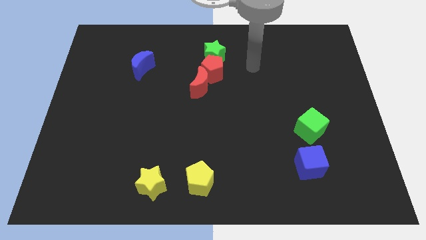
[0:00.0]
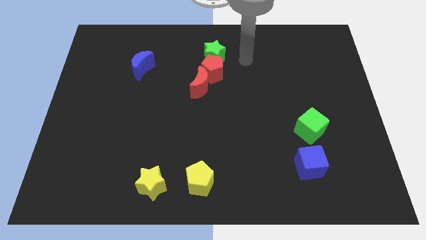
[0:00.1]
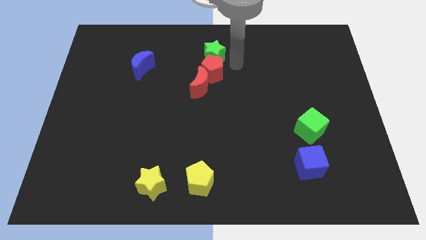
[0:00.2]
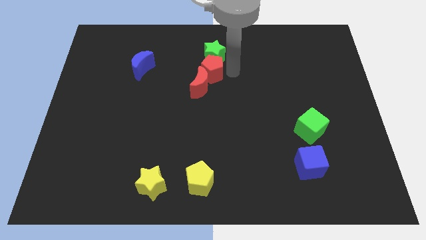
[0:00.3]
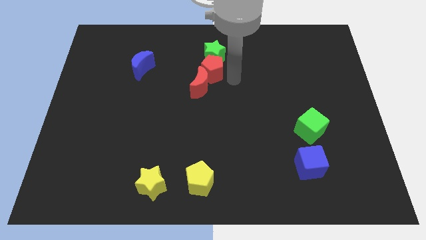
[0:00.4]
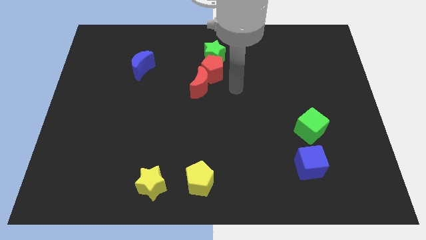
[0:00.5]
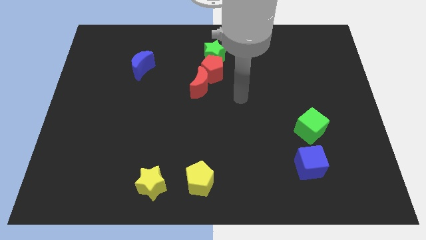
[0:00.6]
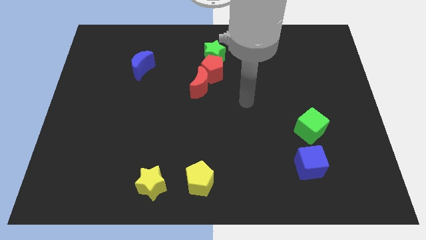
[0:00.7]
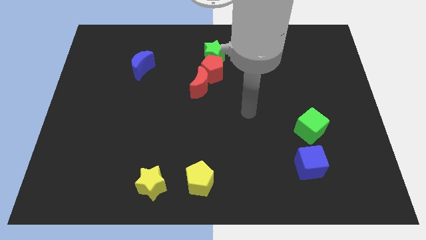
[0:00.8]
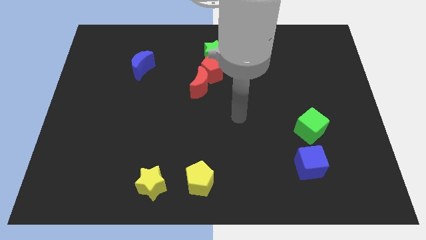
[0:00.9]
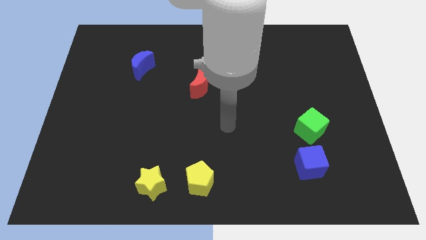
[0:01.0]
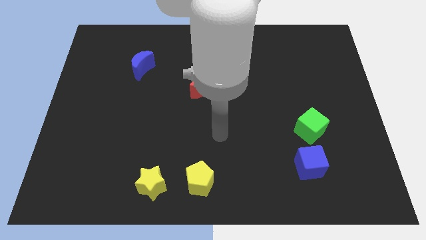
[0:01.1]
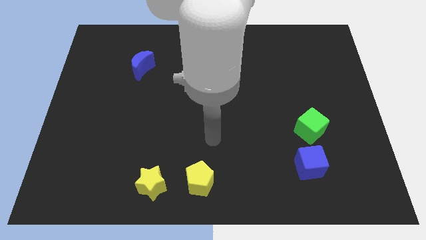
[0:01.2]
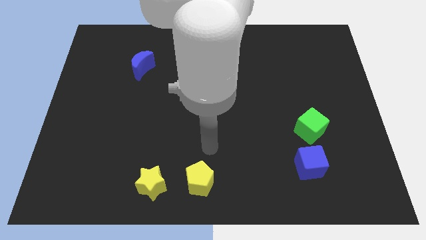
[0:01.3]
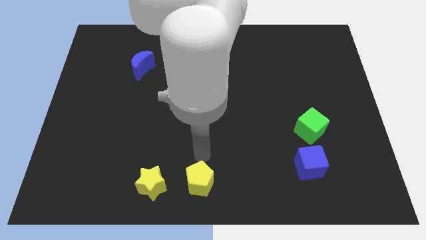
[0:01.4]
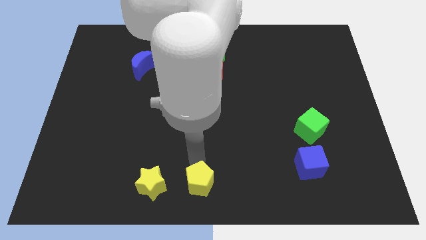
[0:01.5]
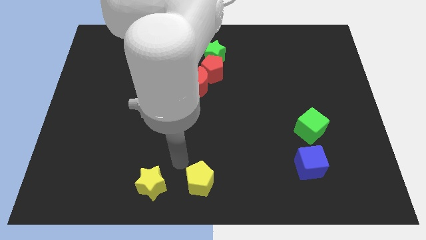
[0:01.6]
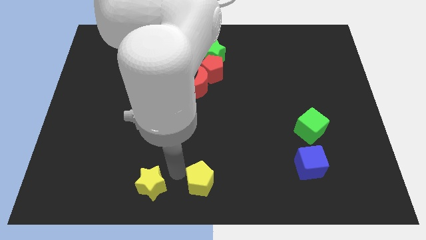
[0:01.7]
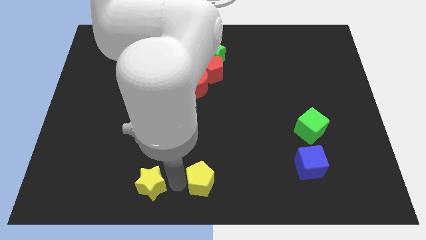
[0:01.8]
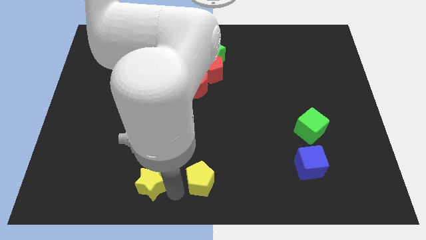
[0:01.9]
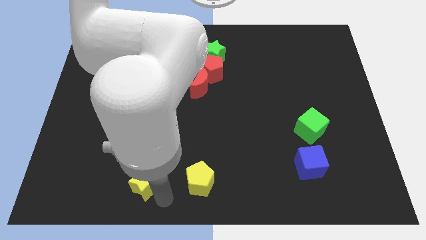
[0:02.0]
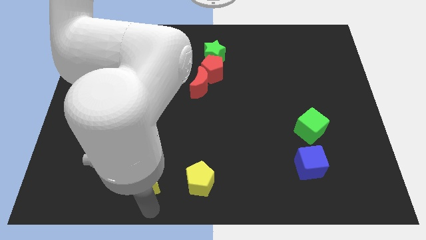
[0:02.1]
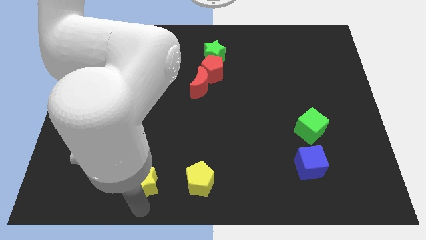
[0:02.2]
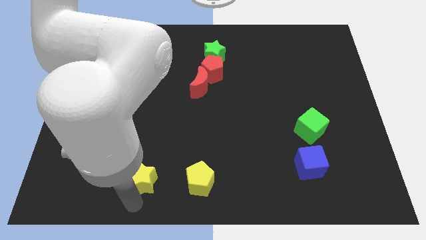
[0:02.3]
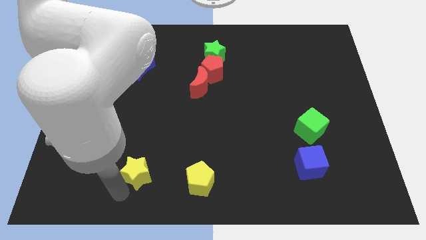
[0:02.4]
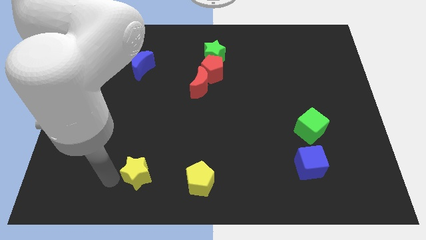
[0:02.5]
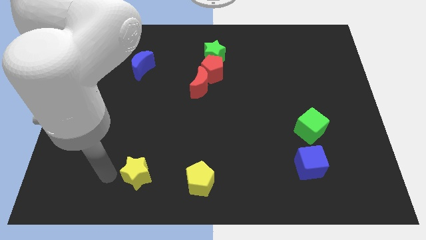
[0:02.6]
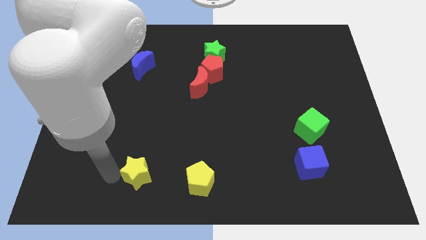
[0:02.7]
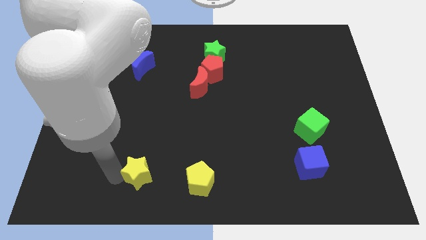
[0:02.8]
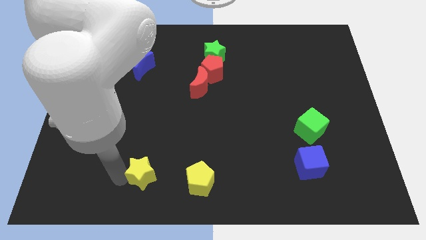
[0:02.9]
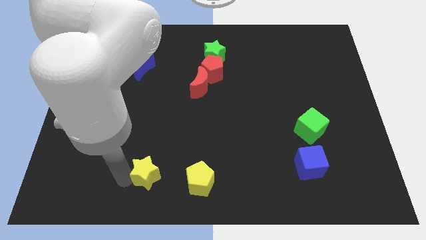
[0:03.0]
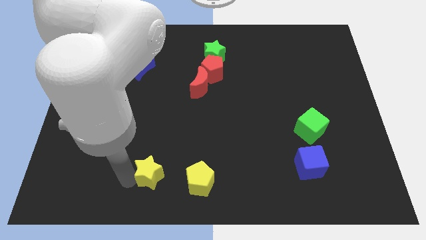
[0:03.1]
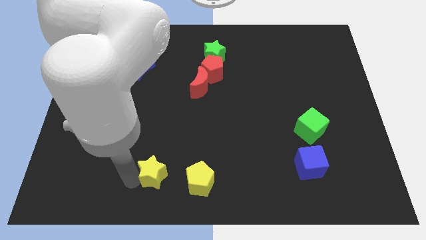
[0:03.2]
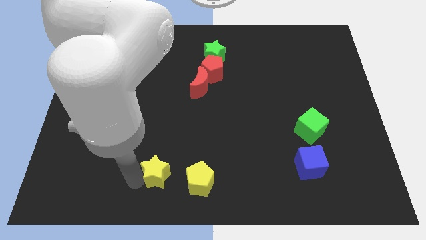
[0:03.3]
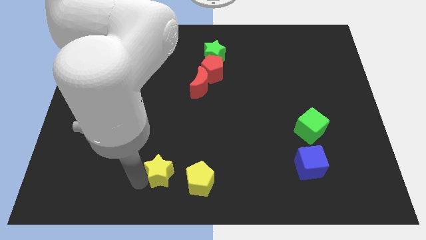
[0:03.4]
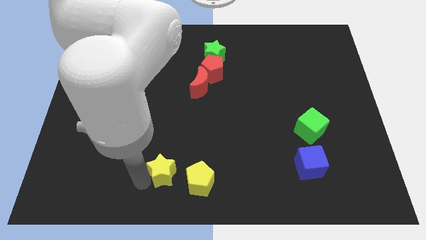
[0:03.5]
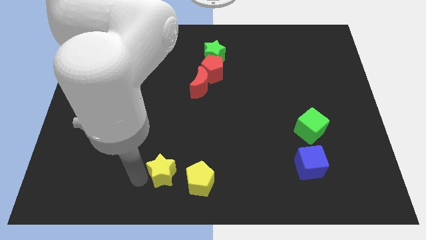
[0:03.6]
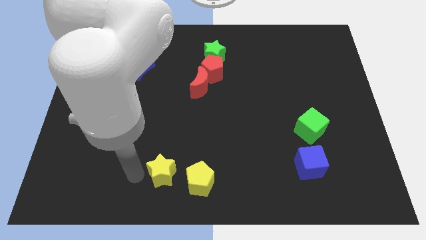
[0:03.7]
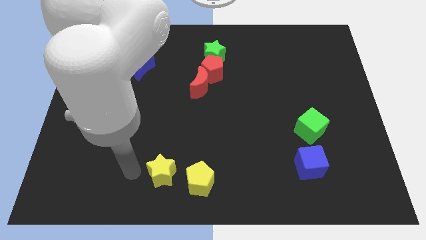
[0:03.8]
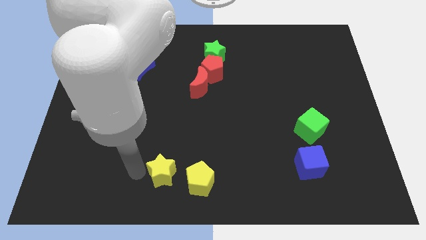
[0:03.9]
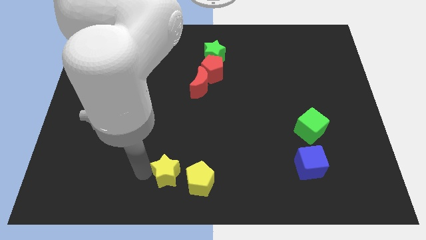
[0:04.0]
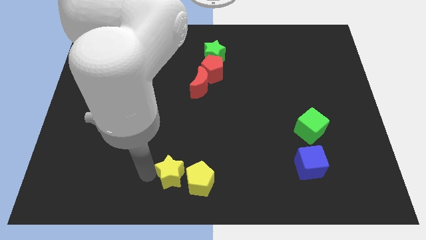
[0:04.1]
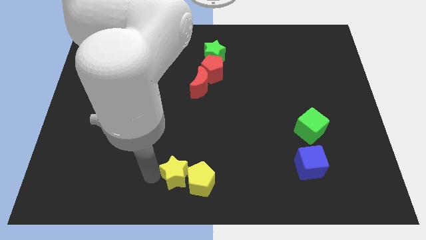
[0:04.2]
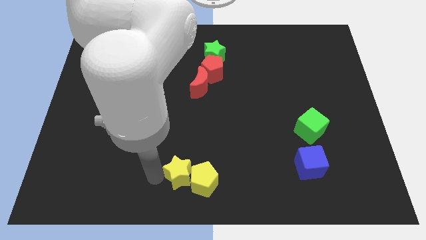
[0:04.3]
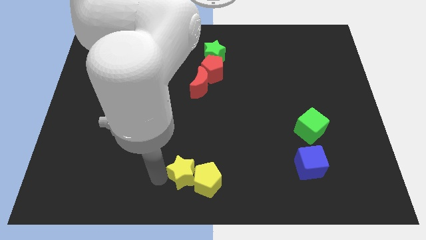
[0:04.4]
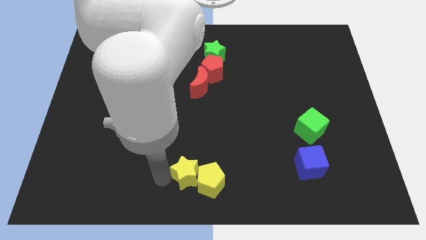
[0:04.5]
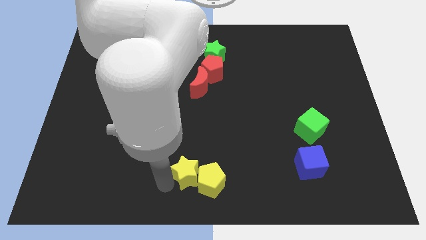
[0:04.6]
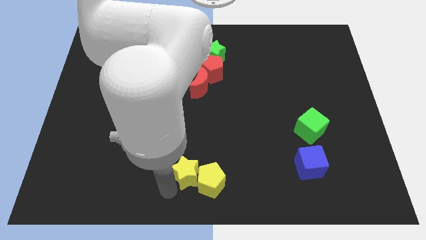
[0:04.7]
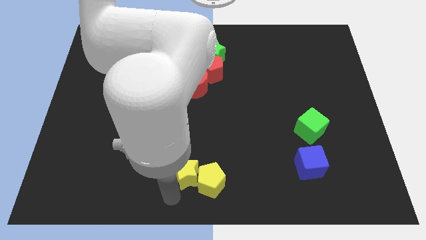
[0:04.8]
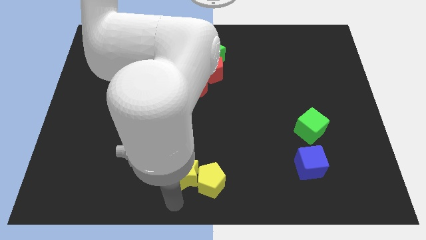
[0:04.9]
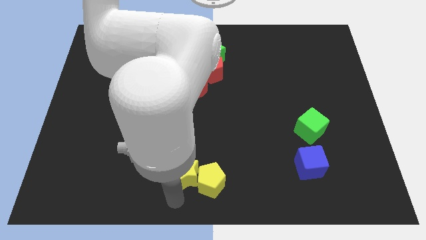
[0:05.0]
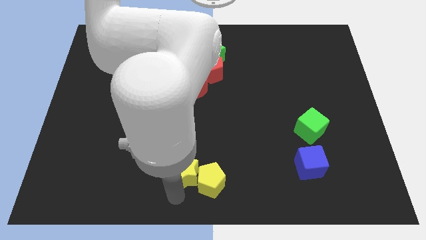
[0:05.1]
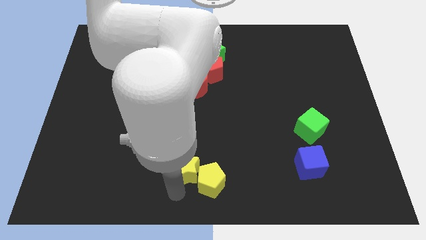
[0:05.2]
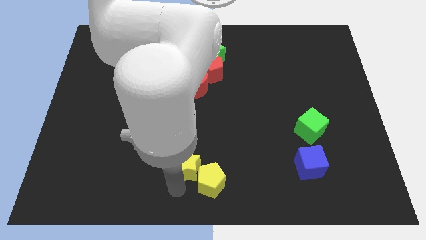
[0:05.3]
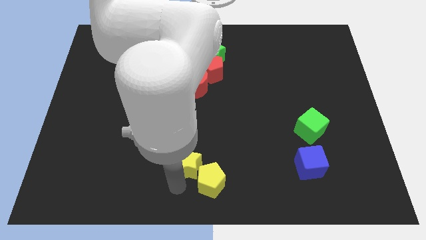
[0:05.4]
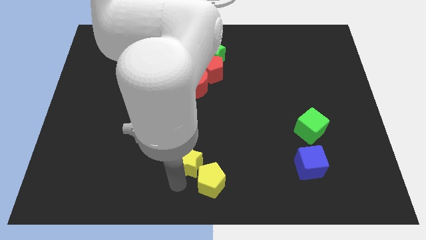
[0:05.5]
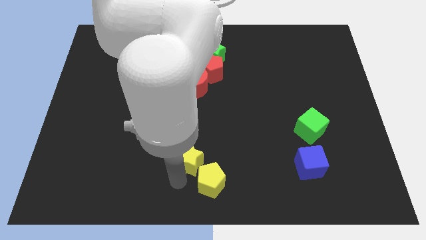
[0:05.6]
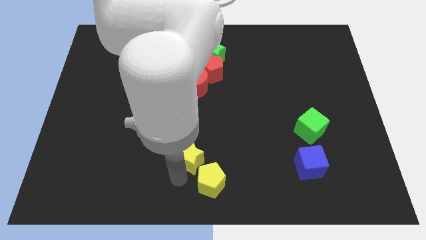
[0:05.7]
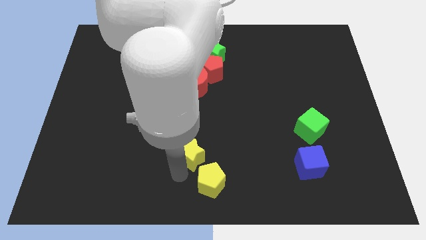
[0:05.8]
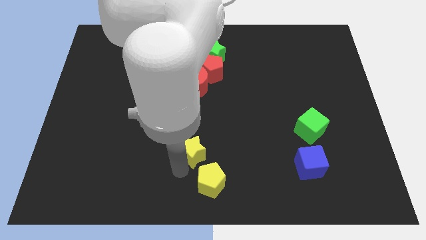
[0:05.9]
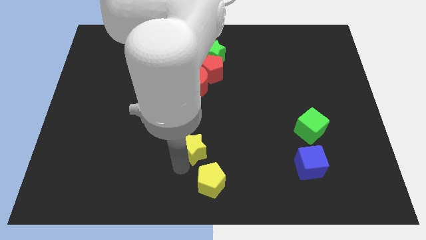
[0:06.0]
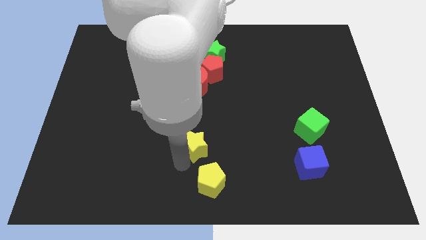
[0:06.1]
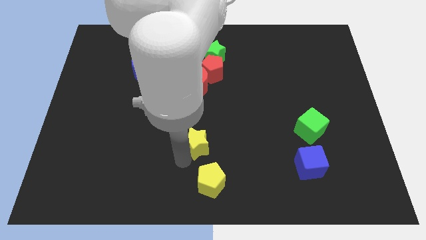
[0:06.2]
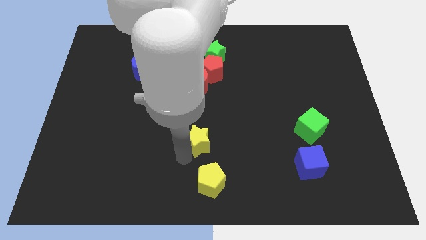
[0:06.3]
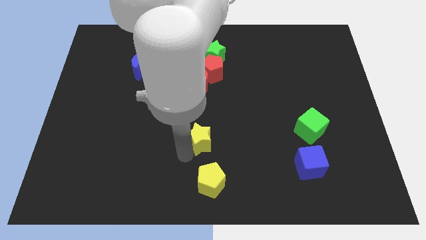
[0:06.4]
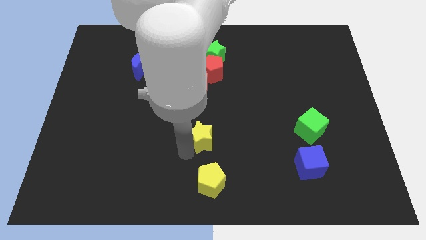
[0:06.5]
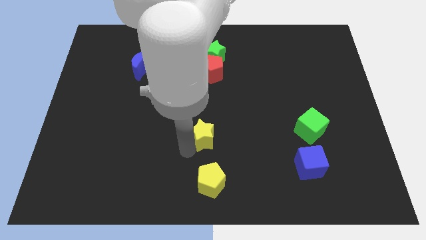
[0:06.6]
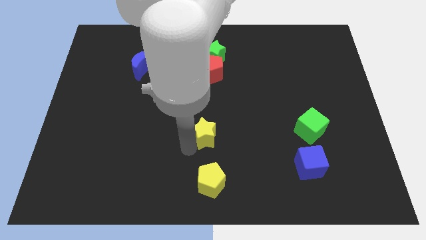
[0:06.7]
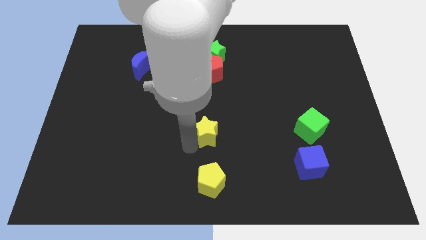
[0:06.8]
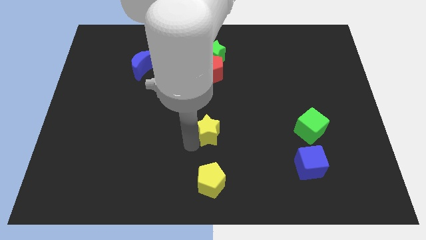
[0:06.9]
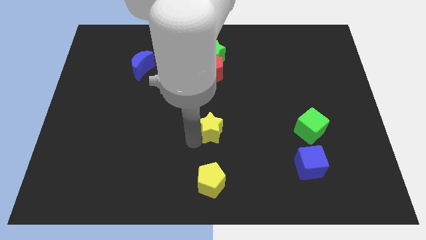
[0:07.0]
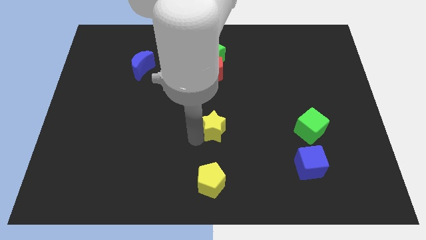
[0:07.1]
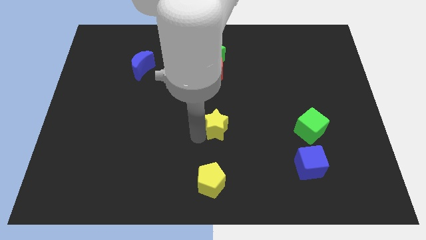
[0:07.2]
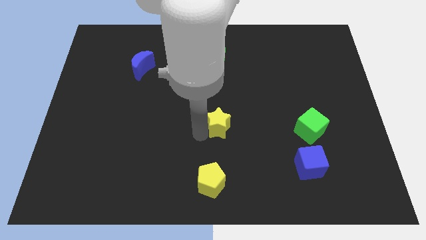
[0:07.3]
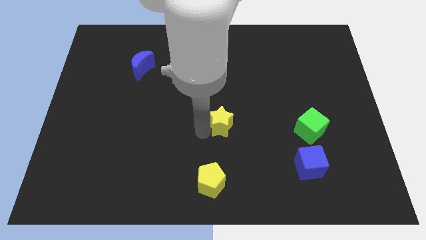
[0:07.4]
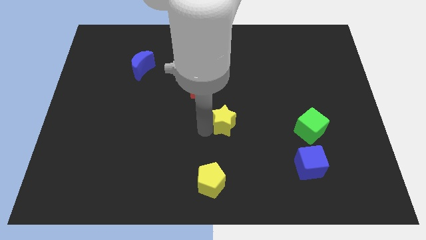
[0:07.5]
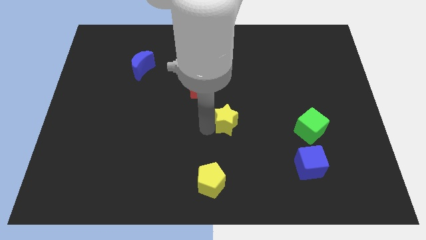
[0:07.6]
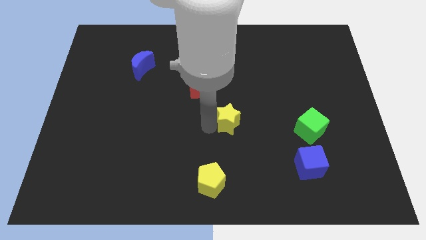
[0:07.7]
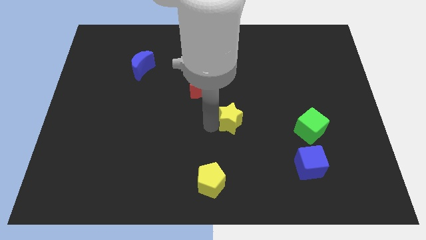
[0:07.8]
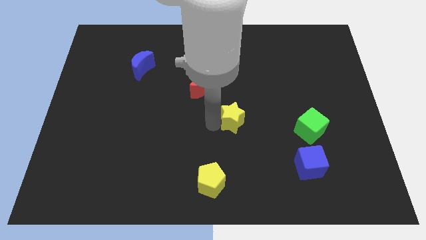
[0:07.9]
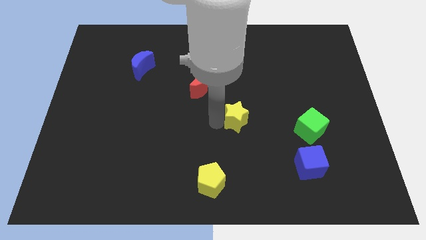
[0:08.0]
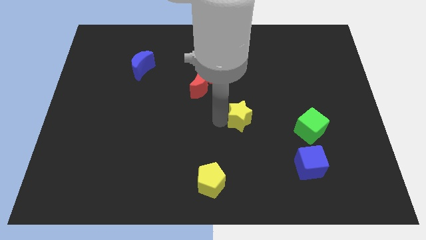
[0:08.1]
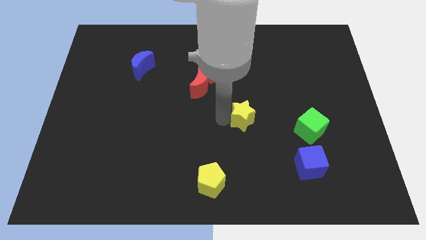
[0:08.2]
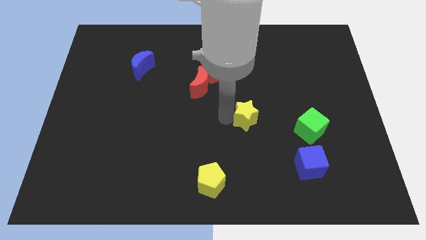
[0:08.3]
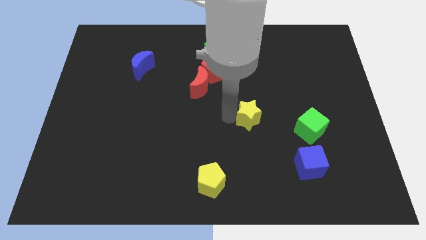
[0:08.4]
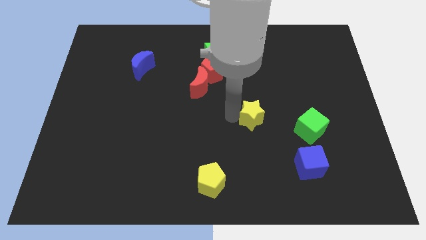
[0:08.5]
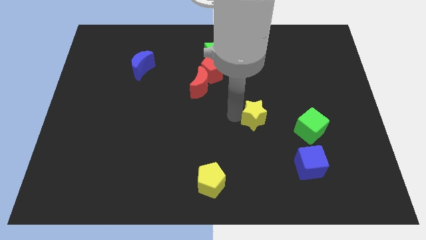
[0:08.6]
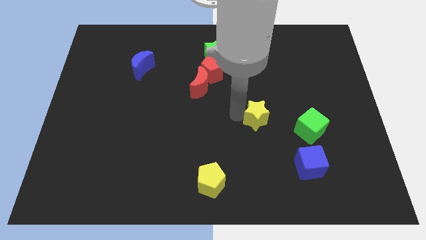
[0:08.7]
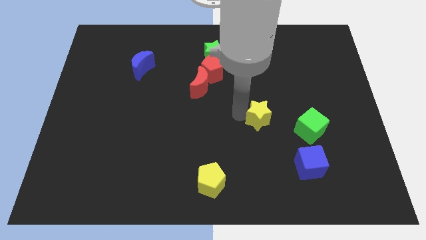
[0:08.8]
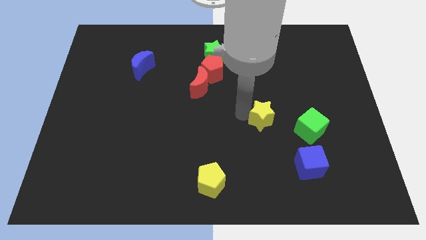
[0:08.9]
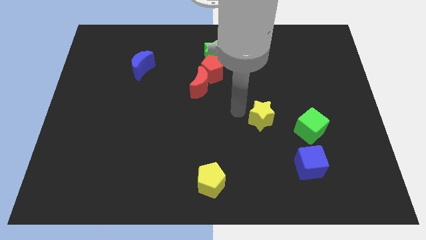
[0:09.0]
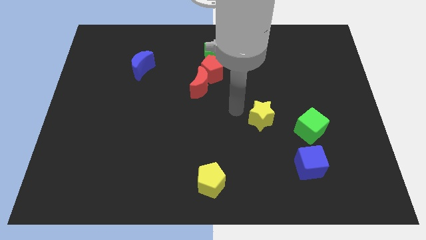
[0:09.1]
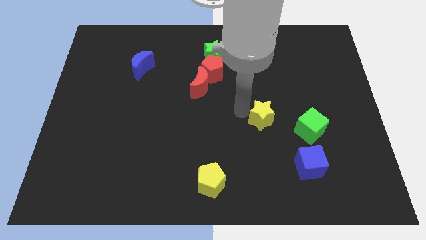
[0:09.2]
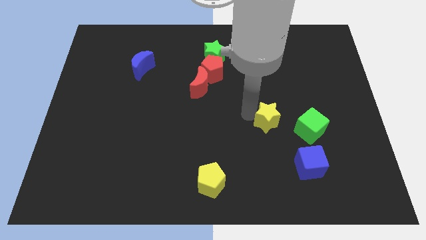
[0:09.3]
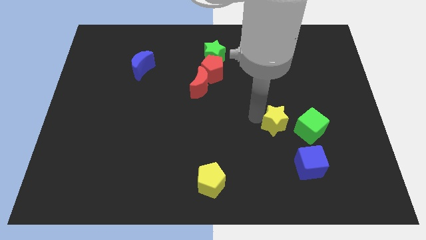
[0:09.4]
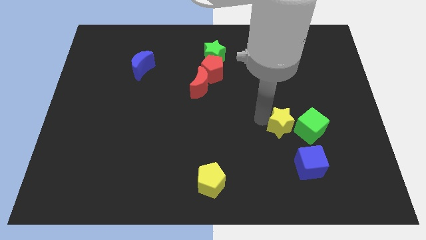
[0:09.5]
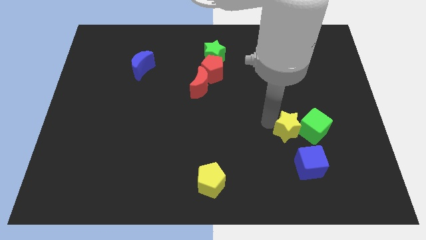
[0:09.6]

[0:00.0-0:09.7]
push the yellow star close to the green cube
